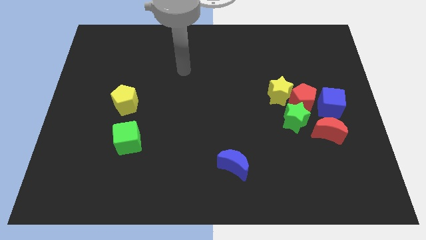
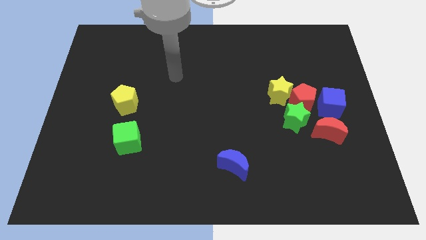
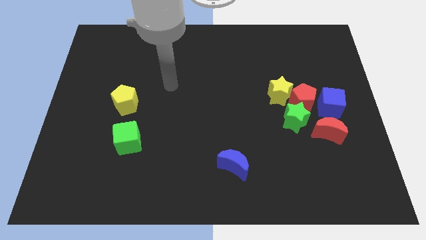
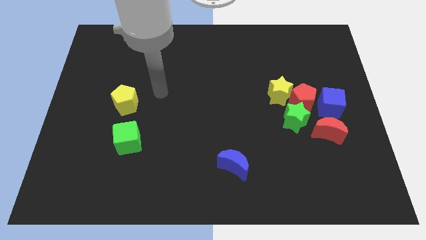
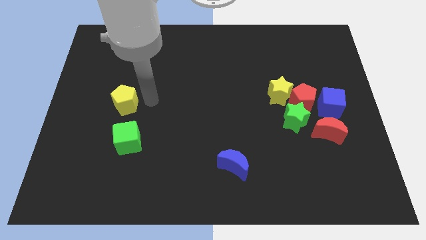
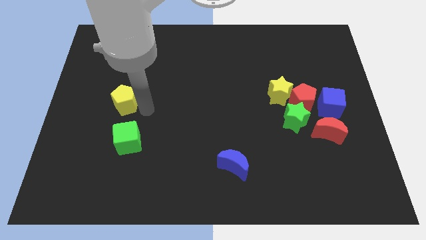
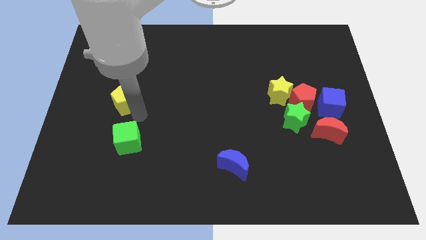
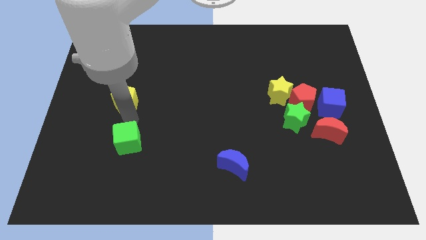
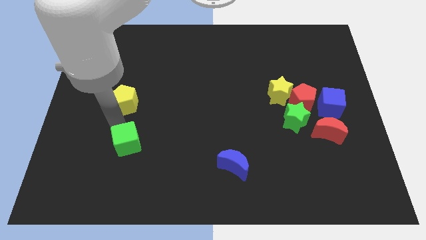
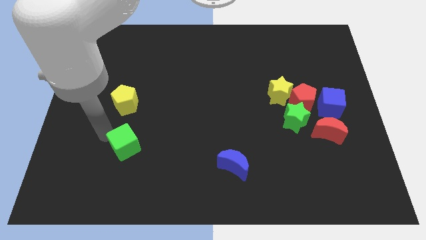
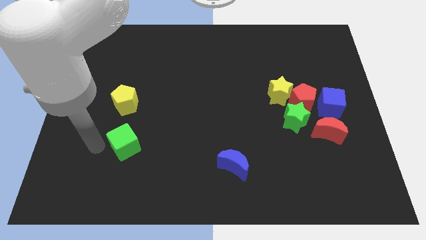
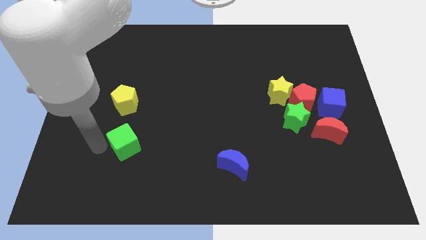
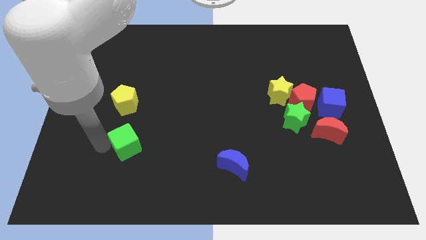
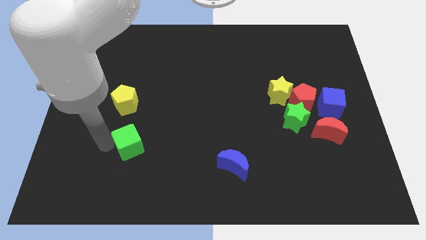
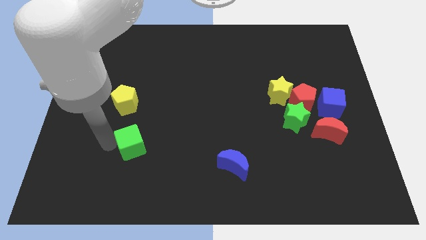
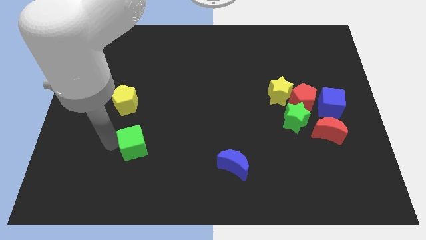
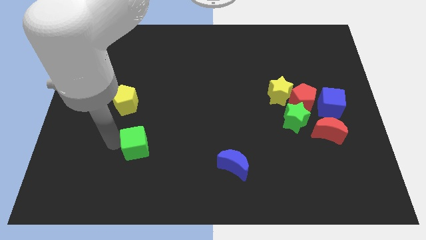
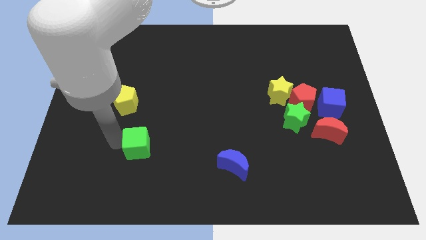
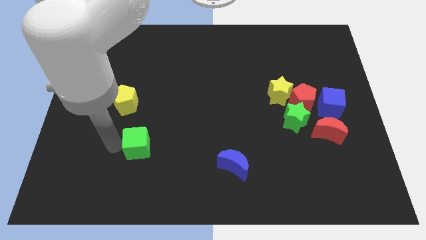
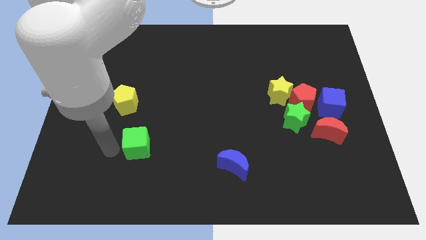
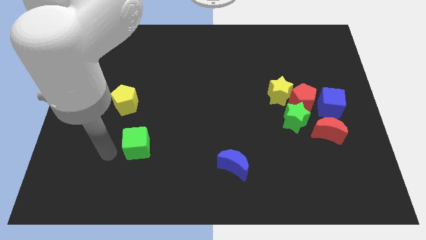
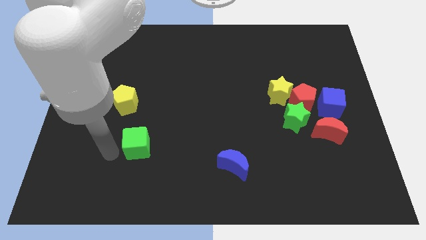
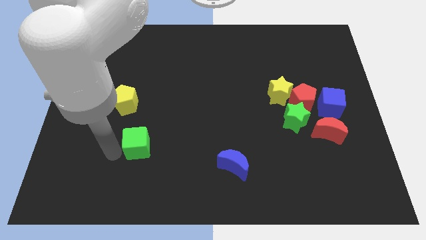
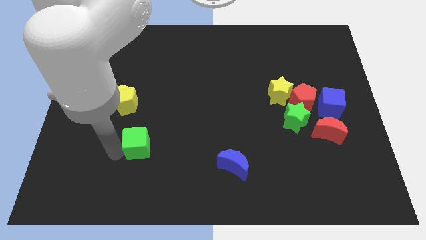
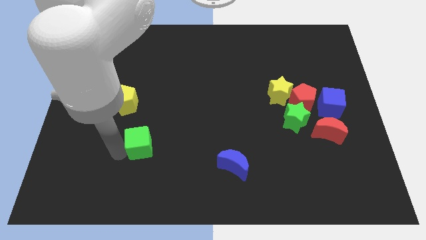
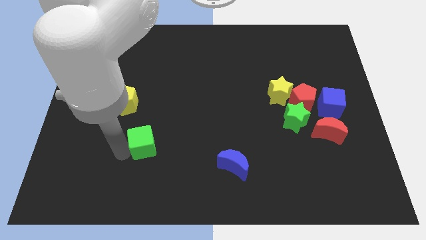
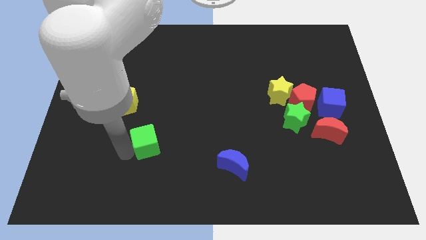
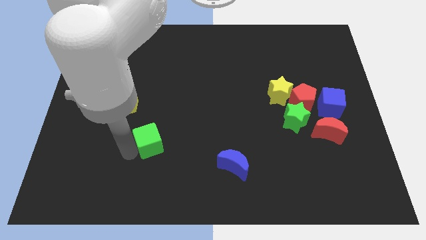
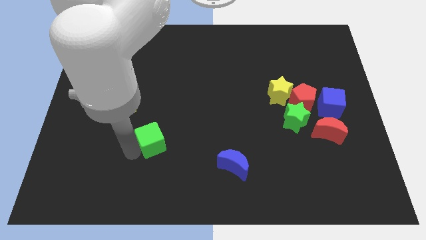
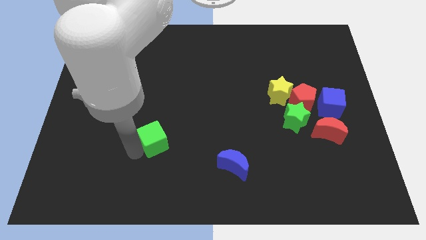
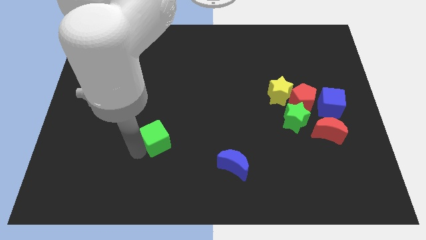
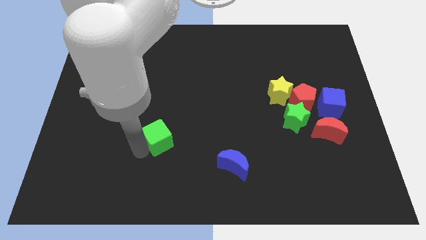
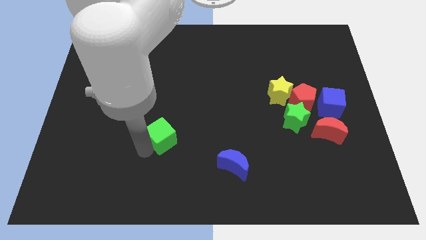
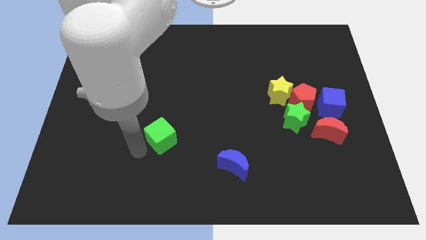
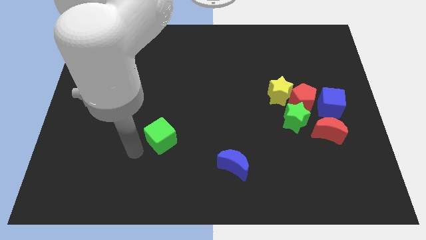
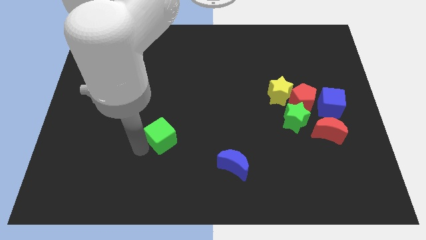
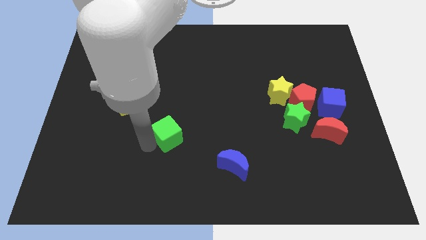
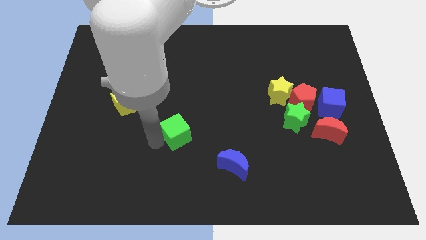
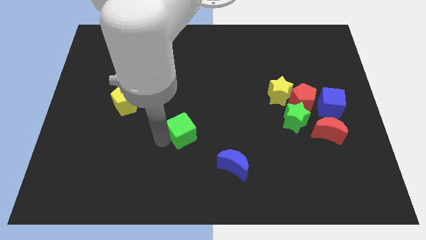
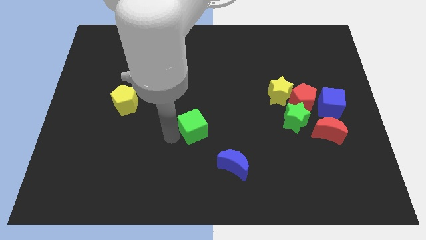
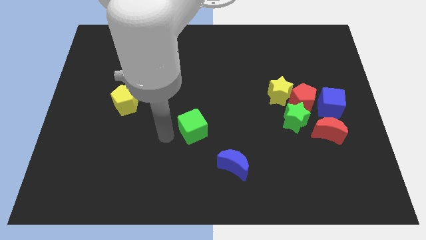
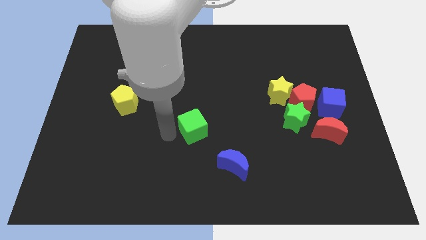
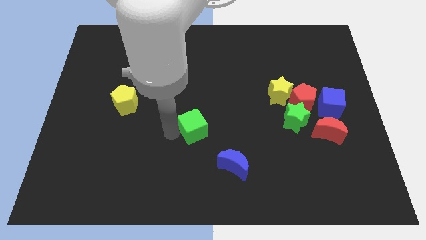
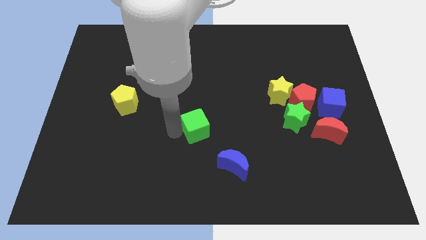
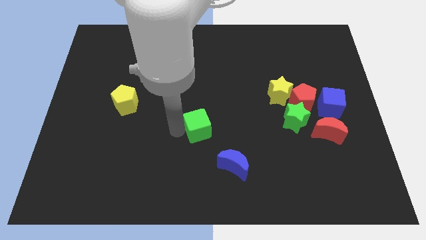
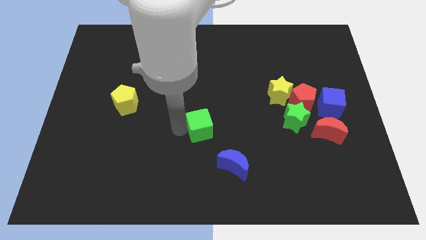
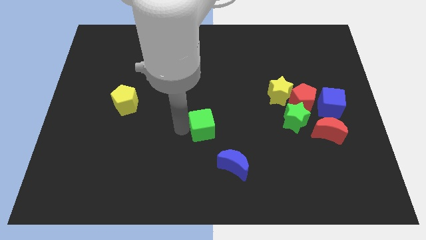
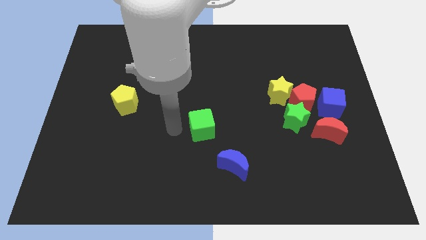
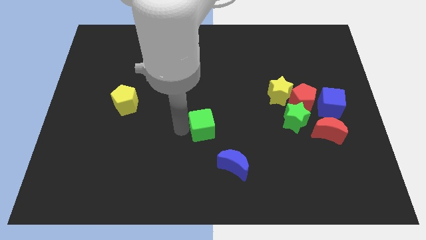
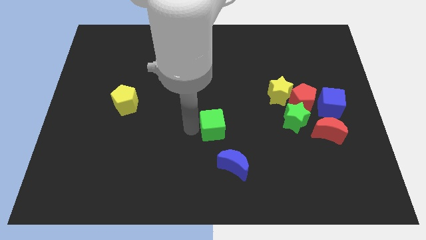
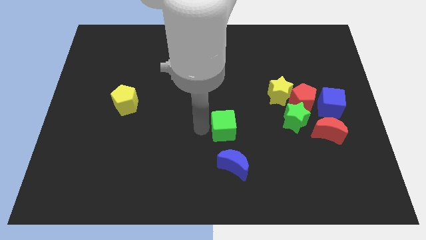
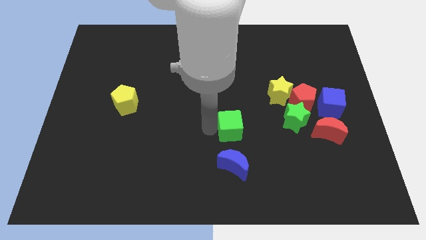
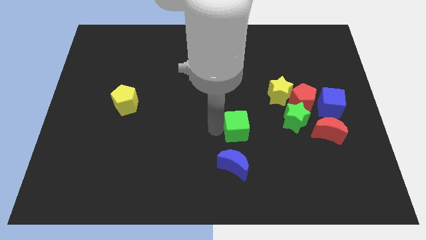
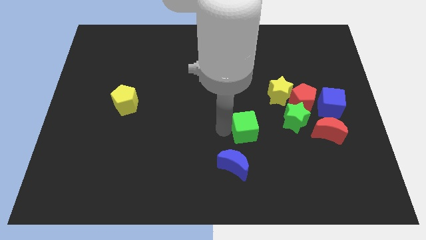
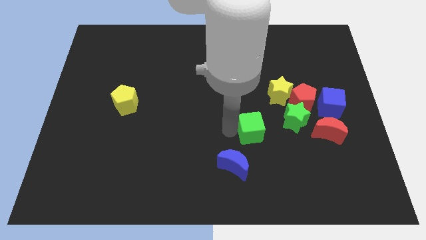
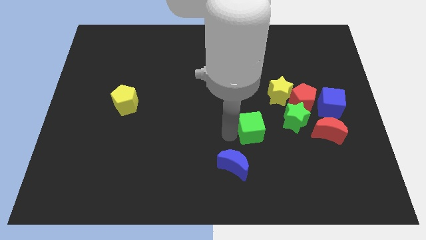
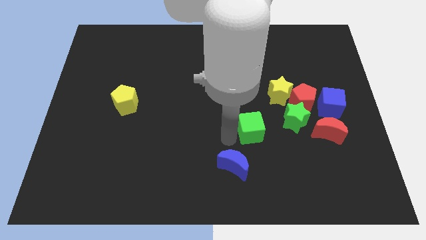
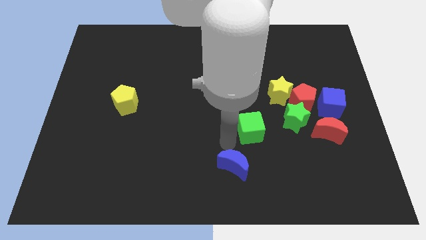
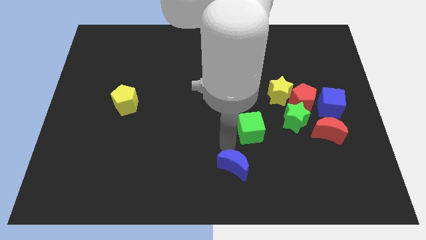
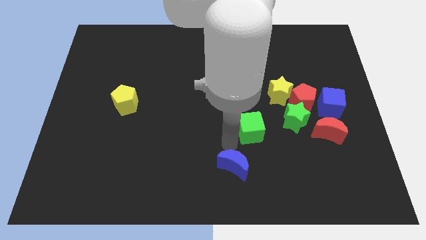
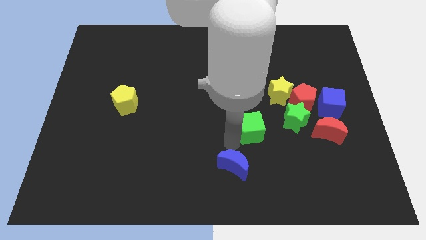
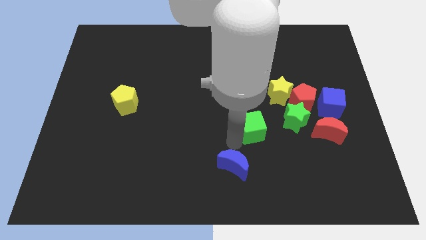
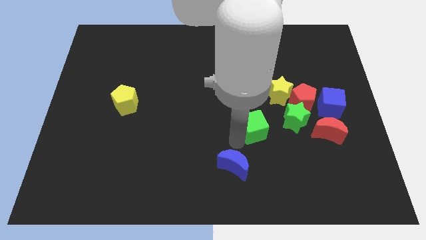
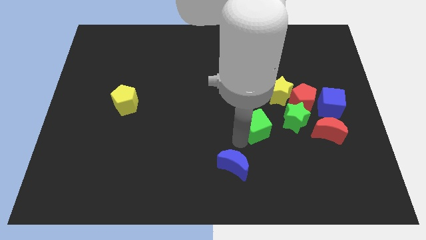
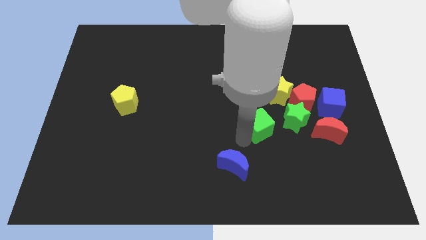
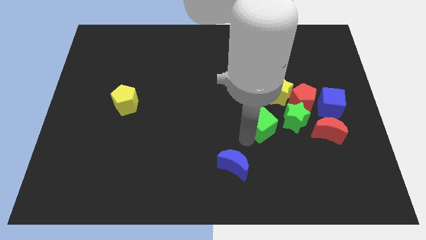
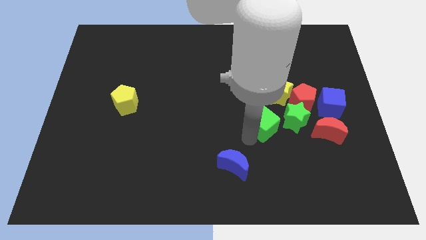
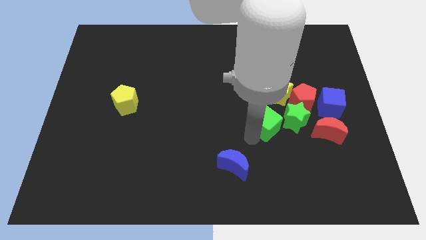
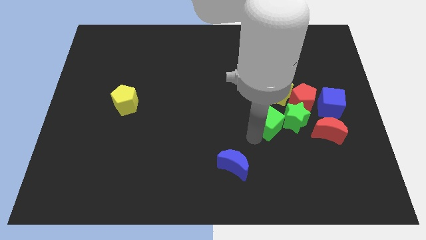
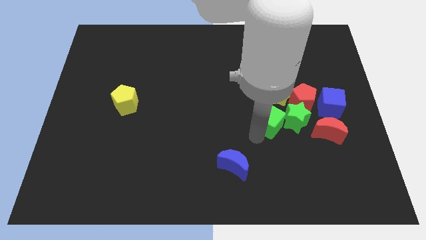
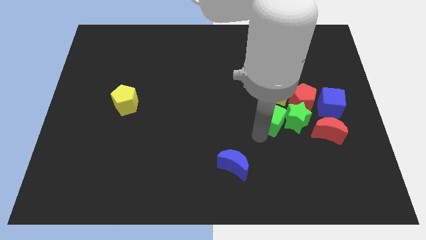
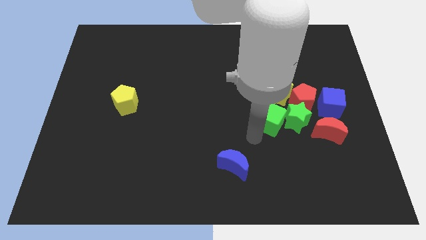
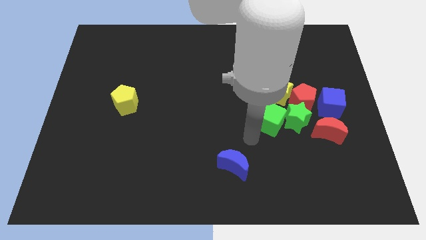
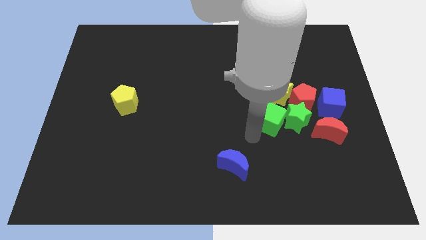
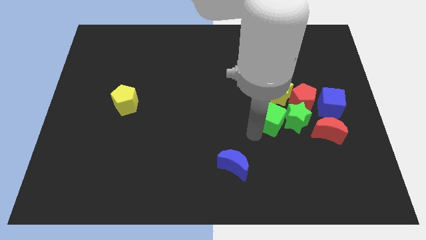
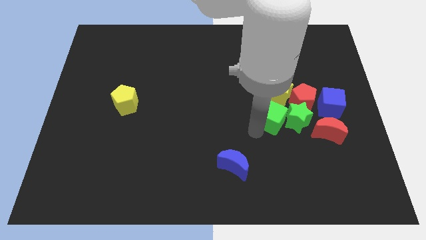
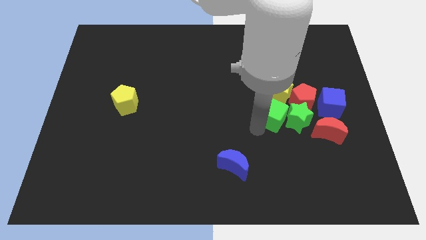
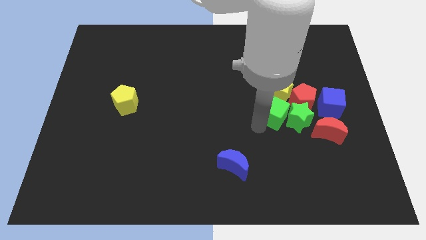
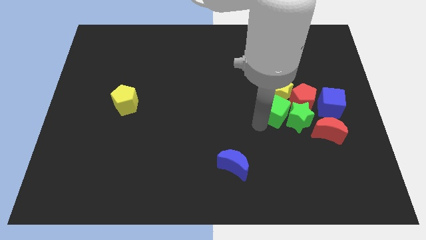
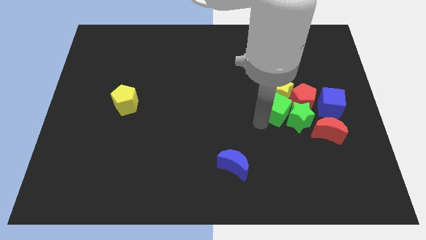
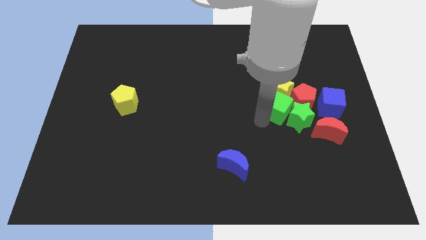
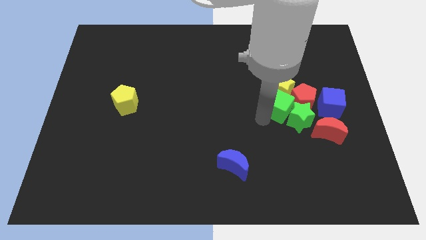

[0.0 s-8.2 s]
move the green cube next to the red pentagon
